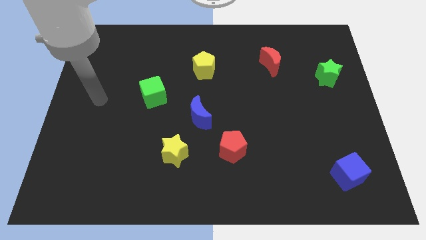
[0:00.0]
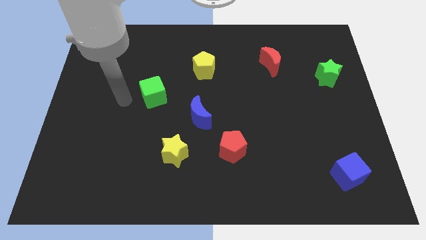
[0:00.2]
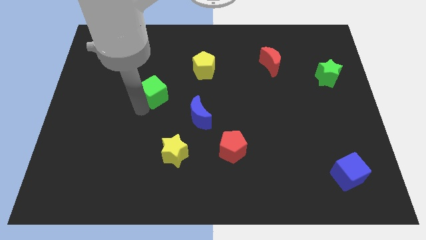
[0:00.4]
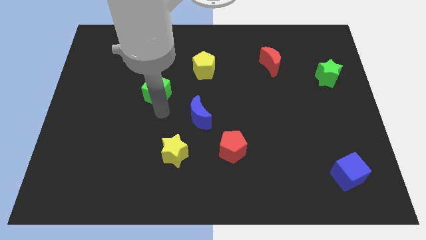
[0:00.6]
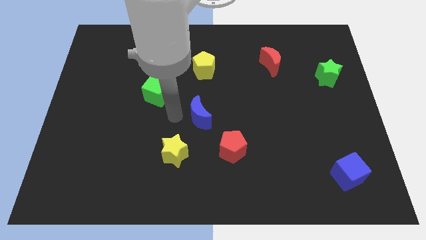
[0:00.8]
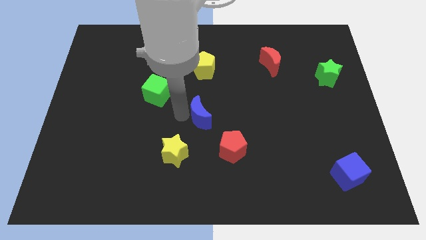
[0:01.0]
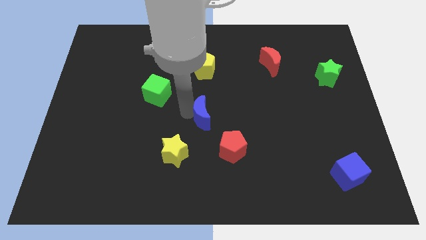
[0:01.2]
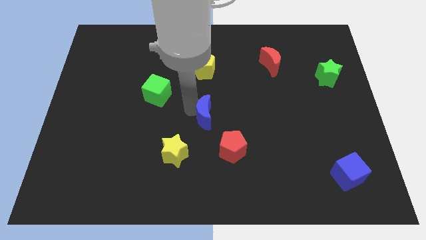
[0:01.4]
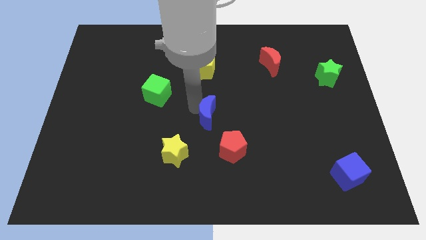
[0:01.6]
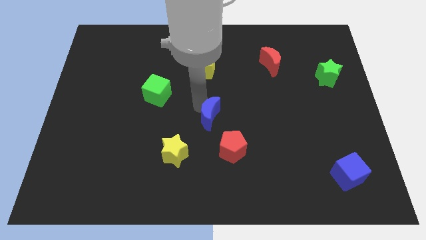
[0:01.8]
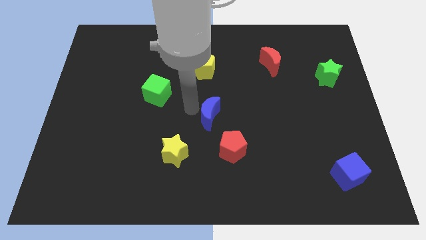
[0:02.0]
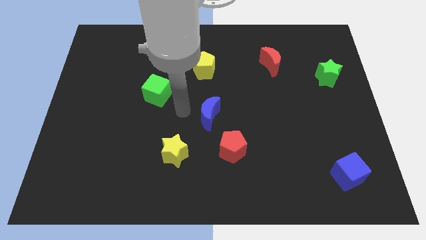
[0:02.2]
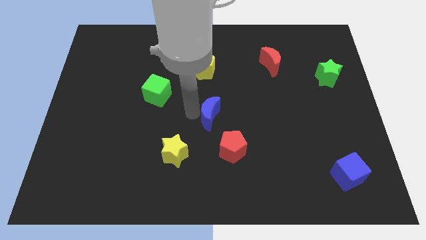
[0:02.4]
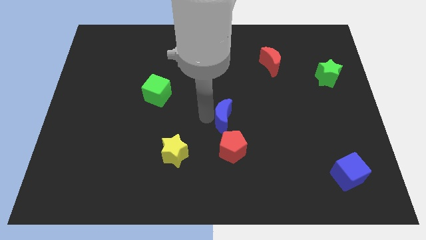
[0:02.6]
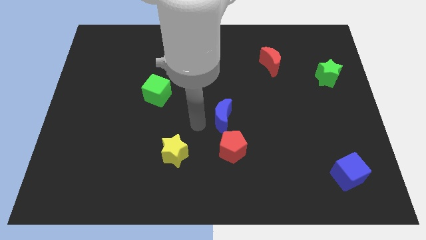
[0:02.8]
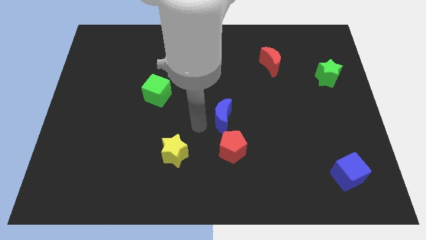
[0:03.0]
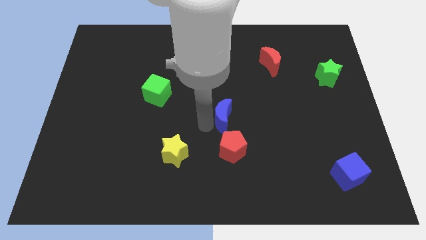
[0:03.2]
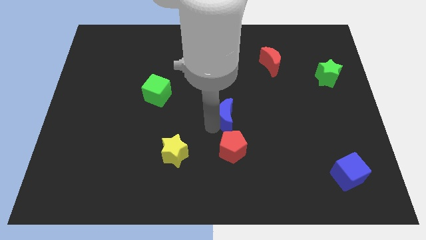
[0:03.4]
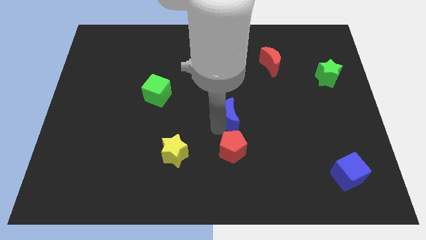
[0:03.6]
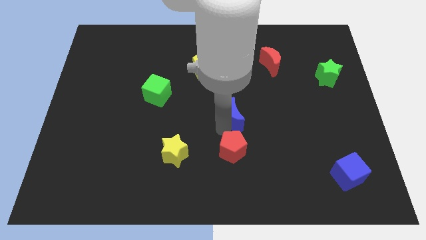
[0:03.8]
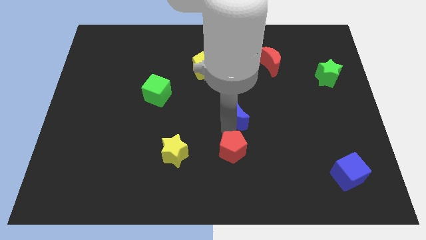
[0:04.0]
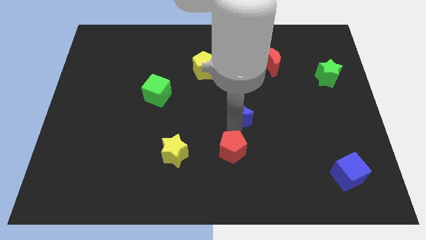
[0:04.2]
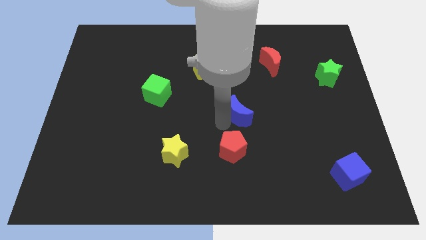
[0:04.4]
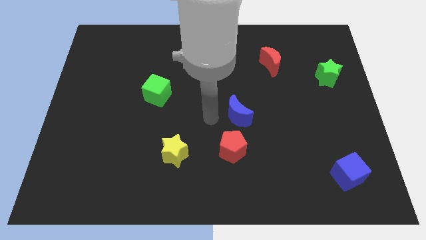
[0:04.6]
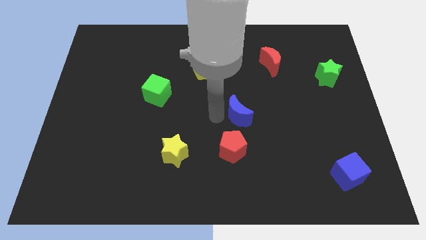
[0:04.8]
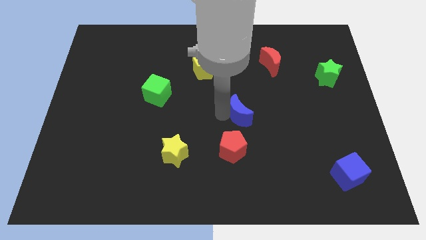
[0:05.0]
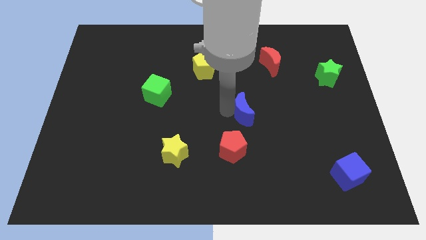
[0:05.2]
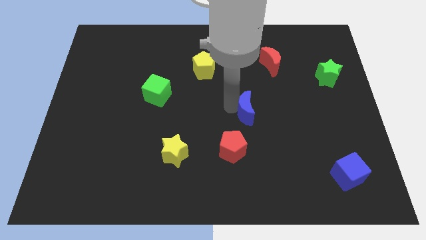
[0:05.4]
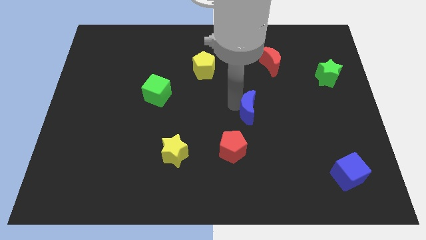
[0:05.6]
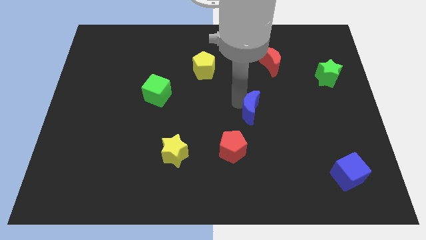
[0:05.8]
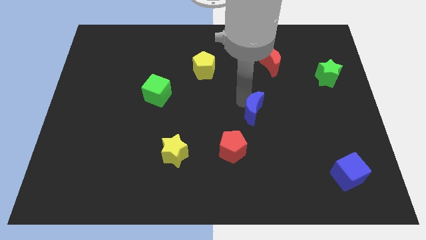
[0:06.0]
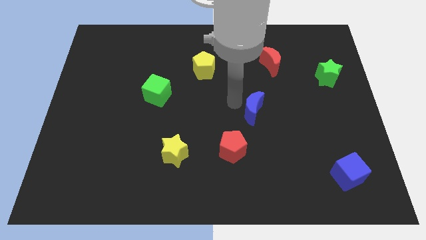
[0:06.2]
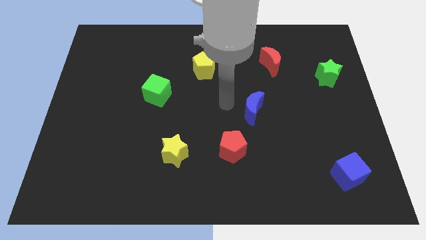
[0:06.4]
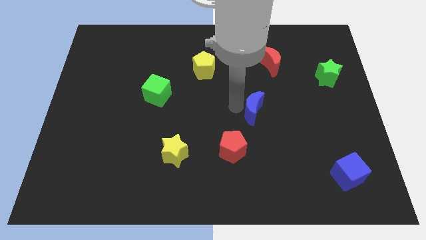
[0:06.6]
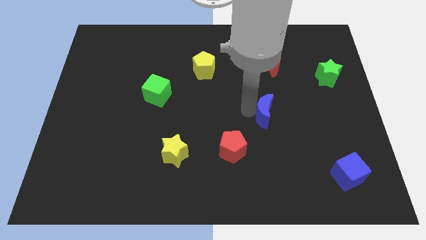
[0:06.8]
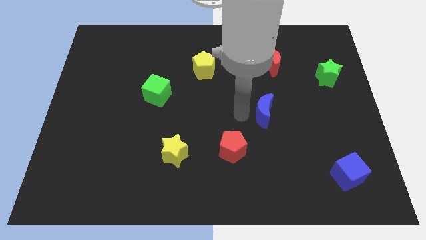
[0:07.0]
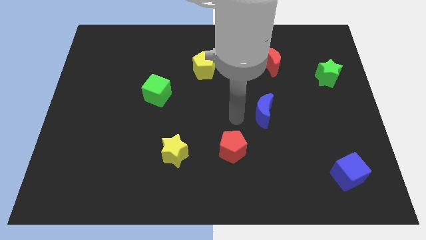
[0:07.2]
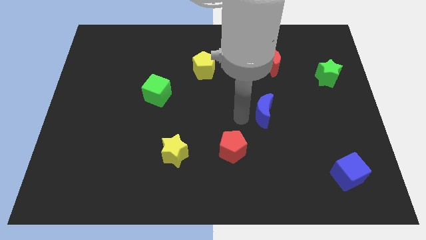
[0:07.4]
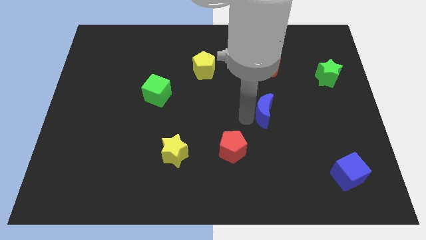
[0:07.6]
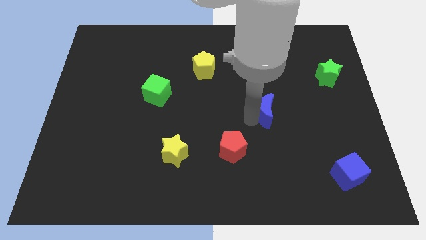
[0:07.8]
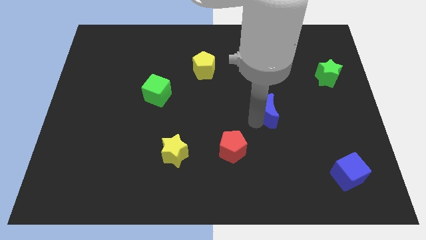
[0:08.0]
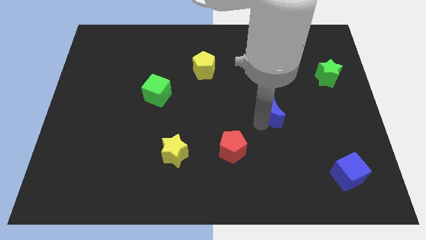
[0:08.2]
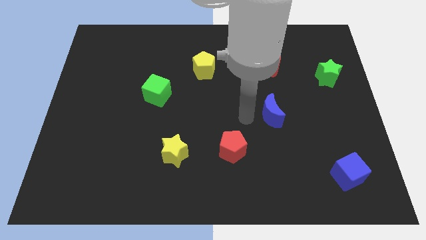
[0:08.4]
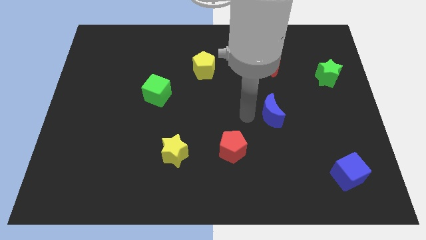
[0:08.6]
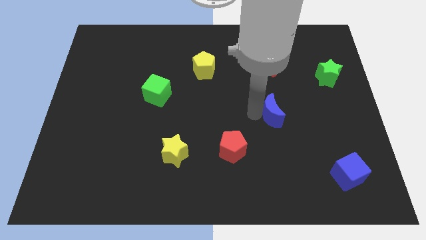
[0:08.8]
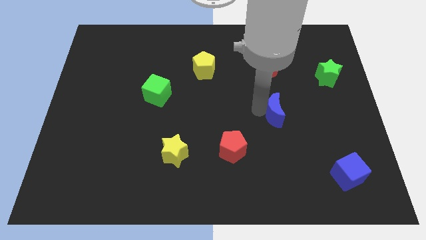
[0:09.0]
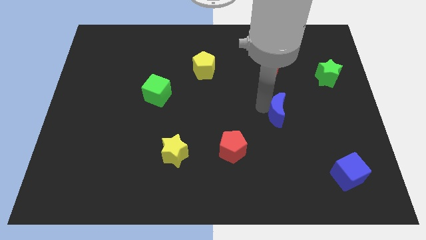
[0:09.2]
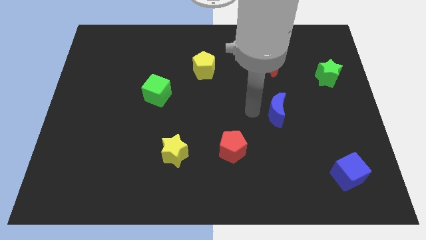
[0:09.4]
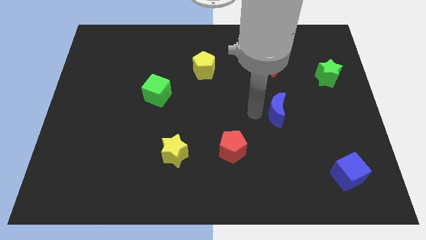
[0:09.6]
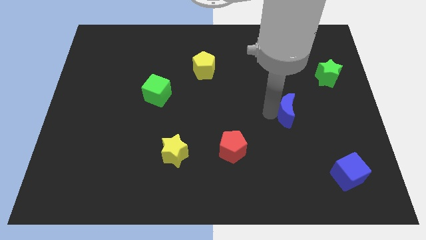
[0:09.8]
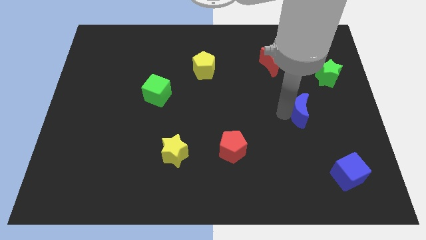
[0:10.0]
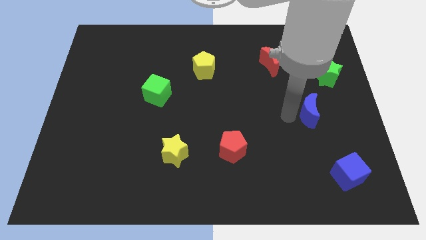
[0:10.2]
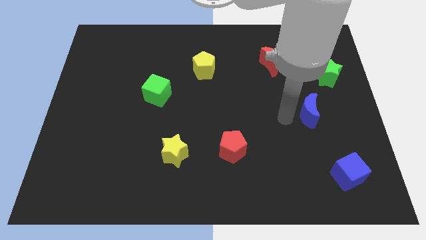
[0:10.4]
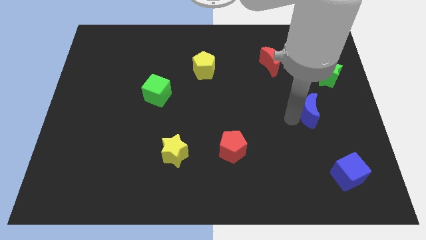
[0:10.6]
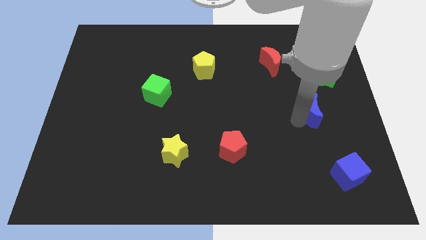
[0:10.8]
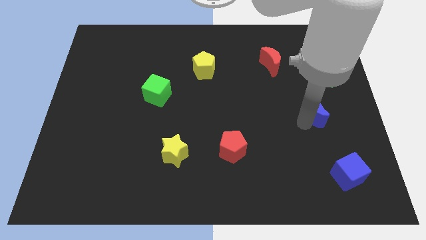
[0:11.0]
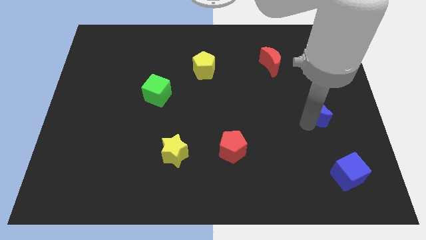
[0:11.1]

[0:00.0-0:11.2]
move the blue moon below the green star

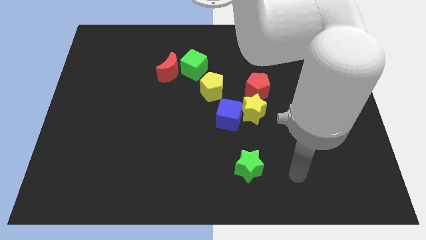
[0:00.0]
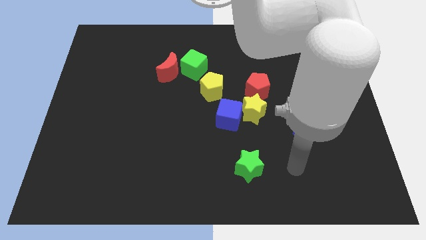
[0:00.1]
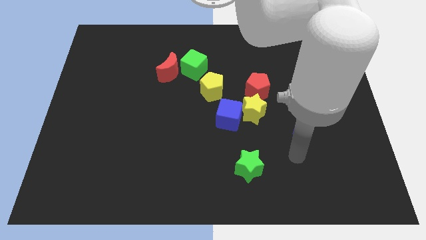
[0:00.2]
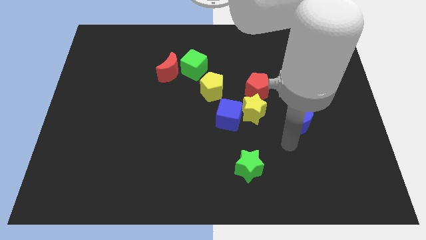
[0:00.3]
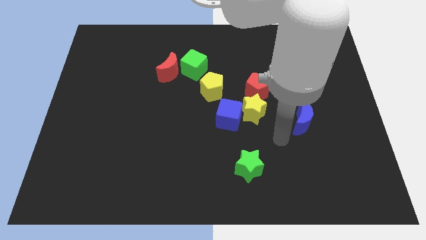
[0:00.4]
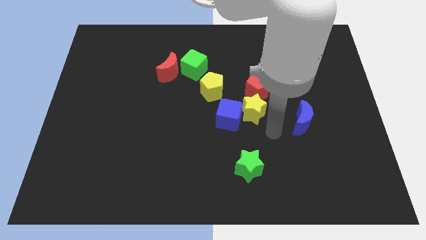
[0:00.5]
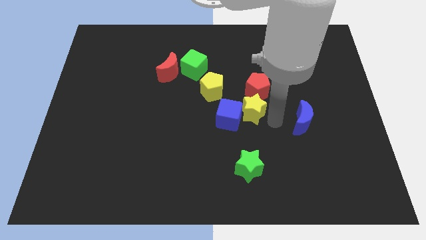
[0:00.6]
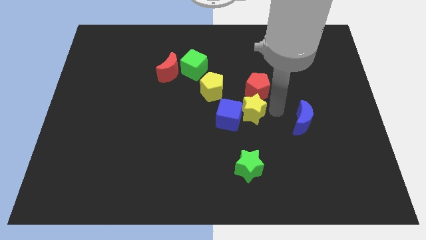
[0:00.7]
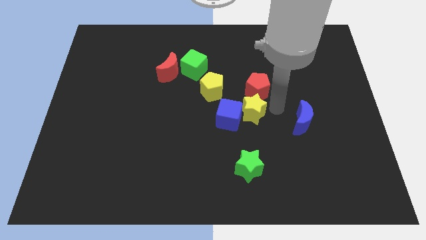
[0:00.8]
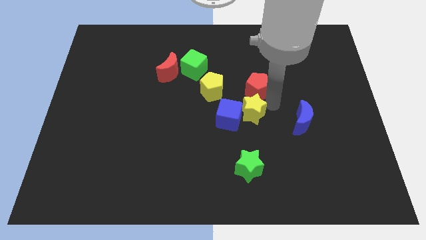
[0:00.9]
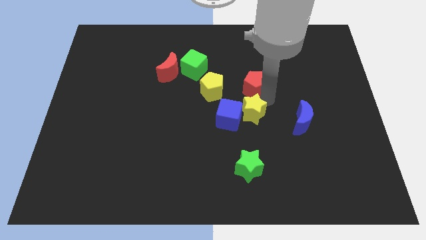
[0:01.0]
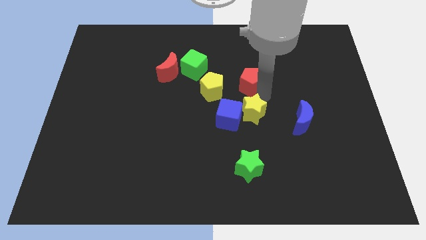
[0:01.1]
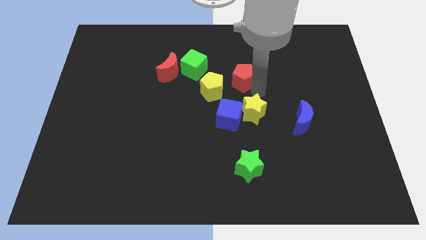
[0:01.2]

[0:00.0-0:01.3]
slide the red pentagon right of the green cube

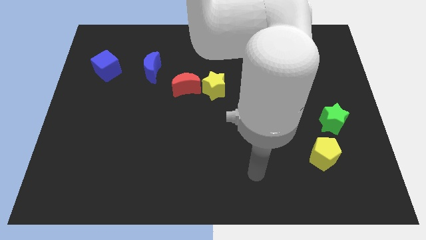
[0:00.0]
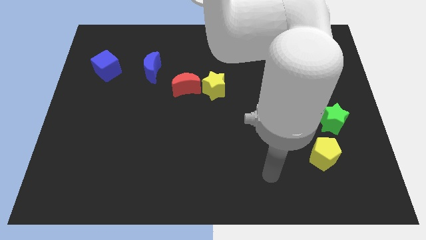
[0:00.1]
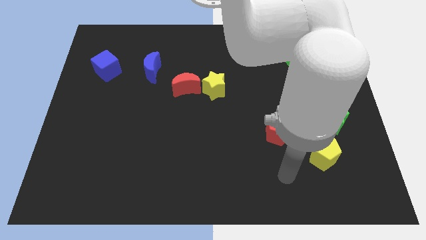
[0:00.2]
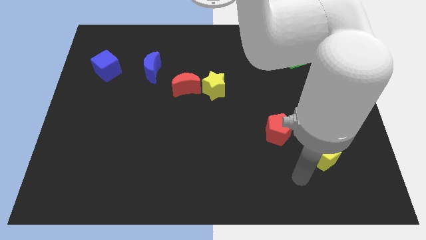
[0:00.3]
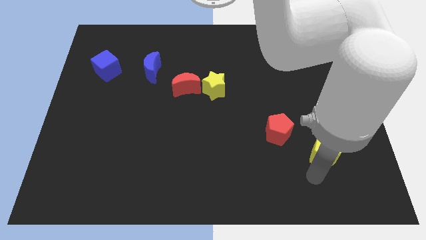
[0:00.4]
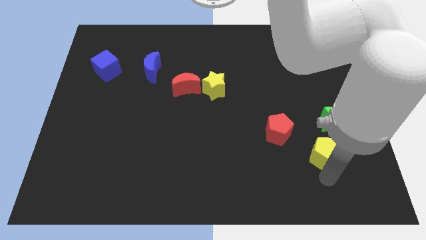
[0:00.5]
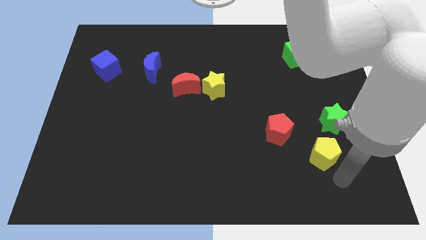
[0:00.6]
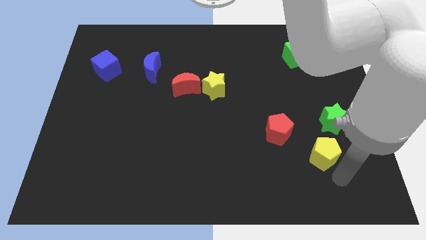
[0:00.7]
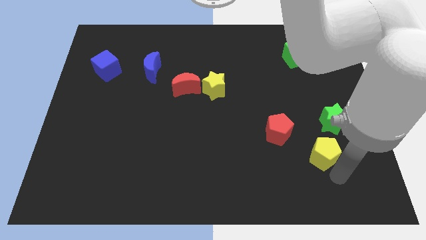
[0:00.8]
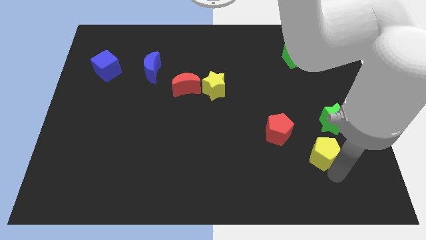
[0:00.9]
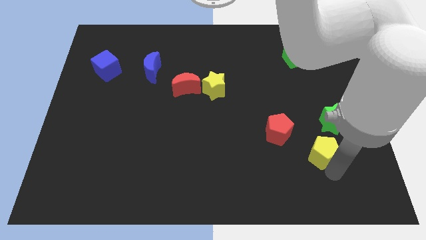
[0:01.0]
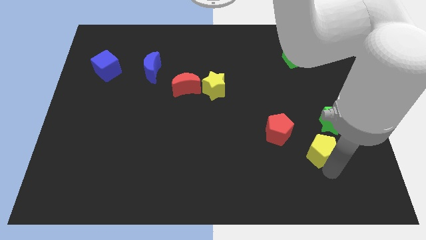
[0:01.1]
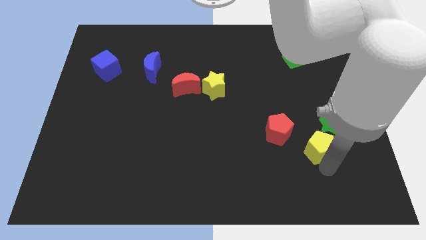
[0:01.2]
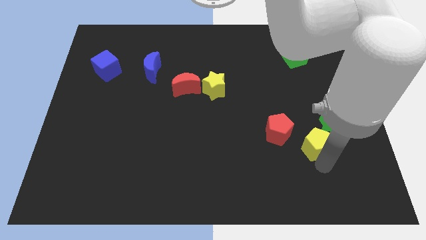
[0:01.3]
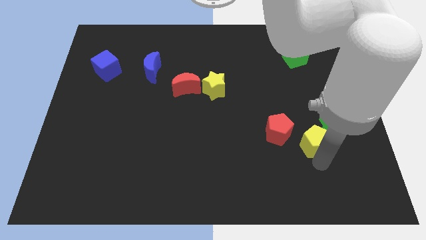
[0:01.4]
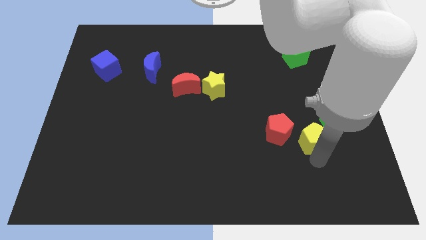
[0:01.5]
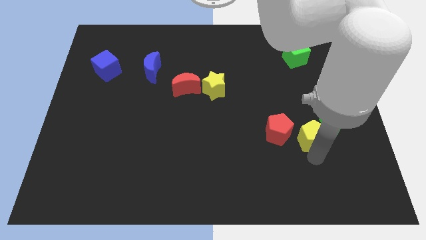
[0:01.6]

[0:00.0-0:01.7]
move the yellow pentagon just left of the green star
